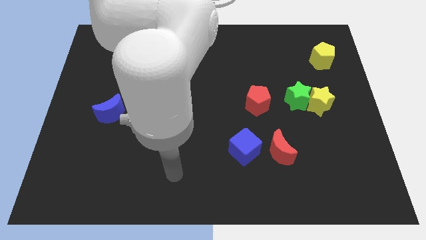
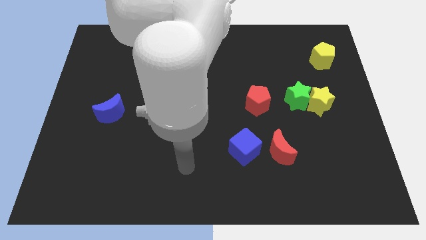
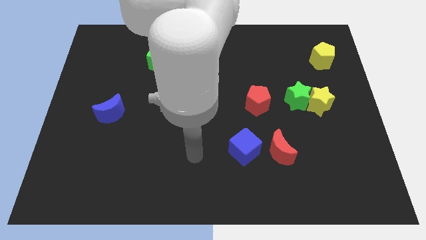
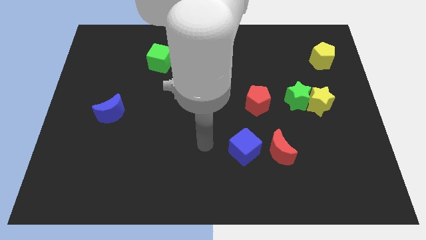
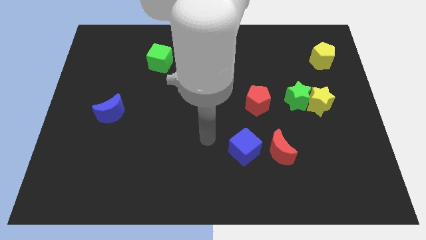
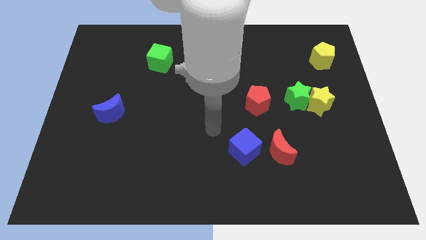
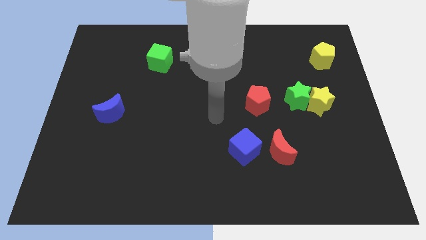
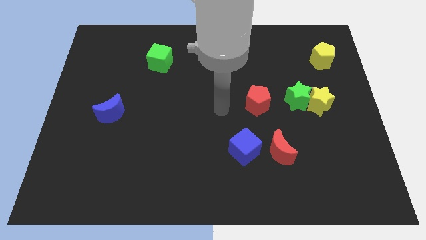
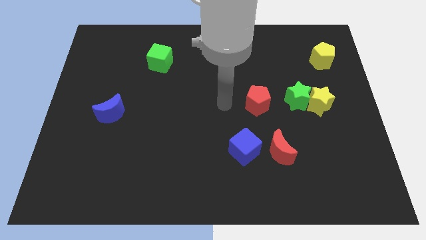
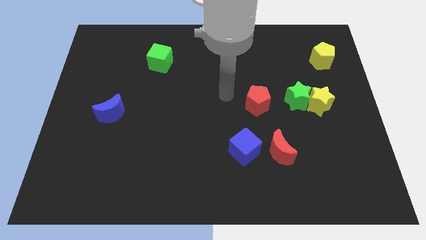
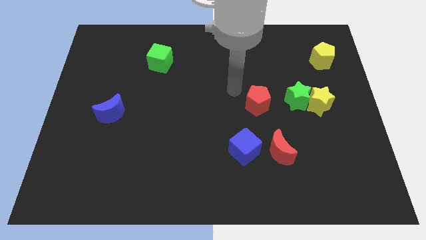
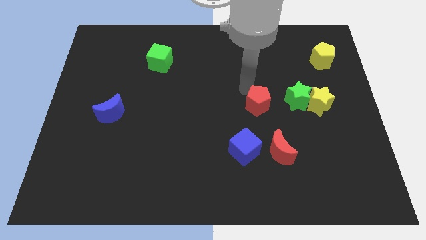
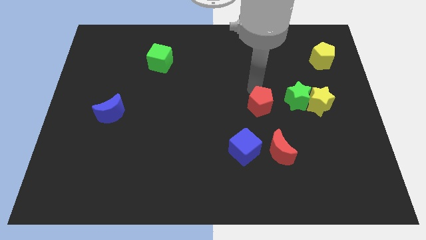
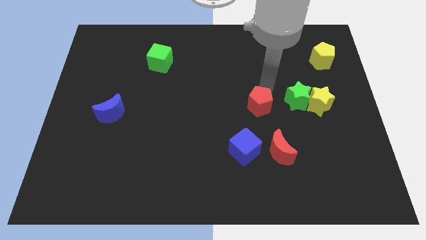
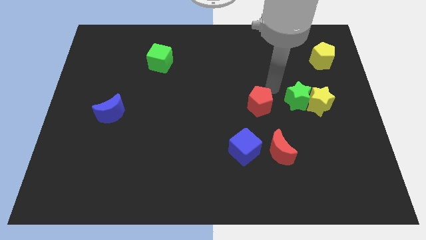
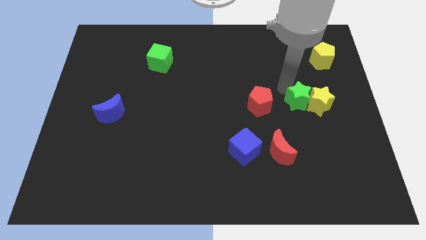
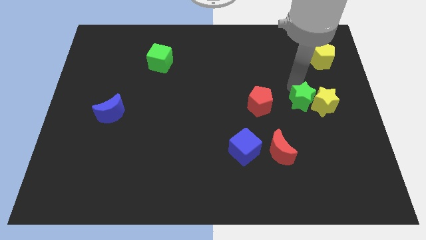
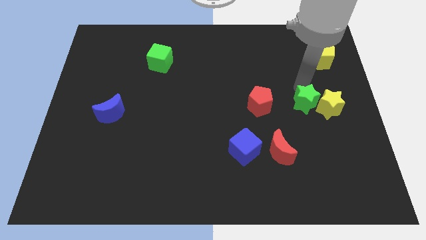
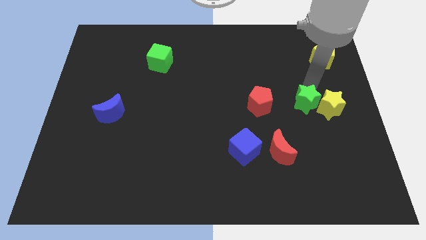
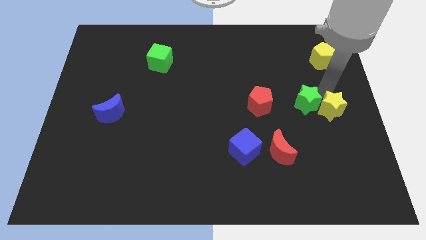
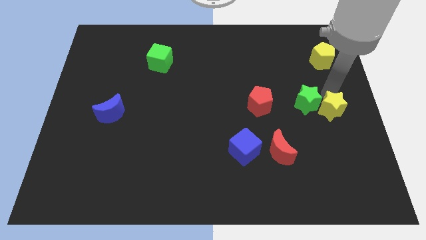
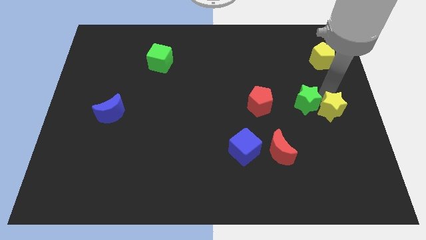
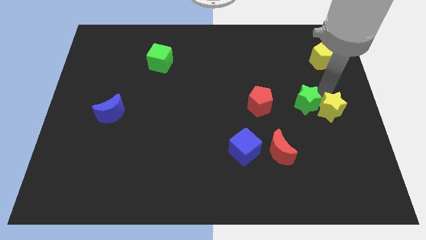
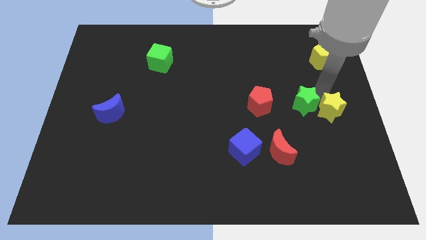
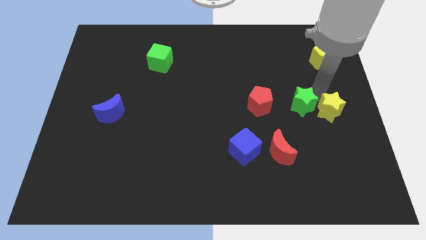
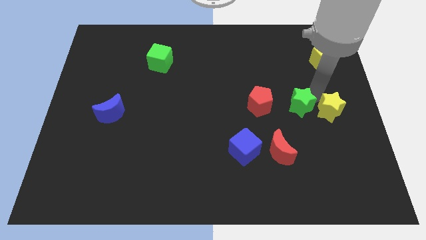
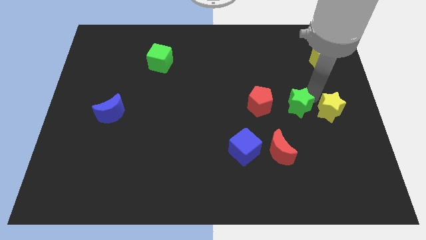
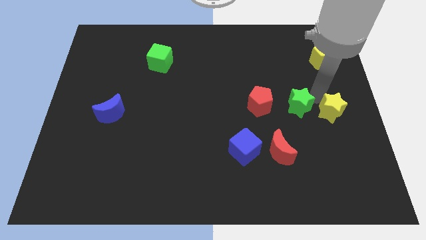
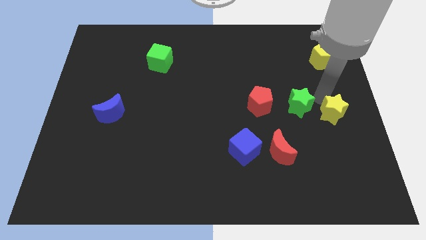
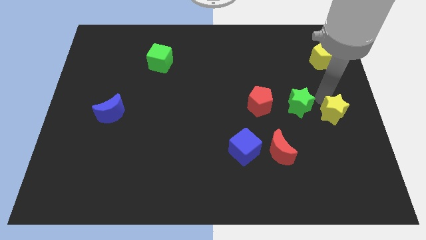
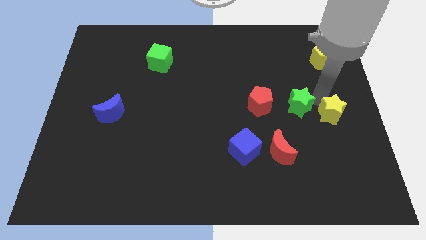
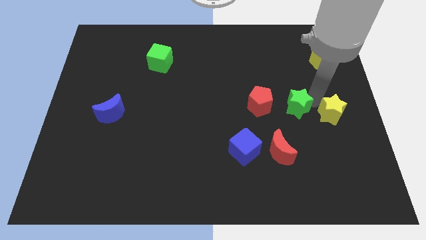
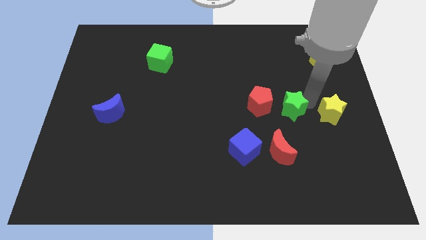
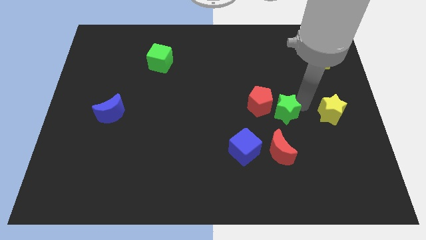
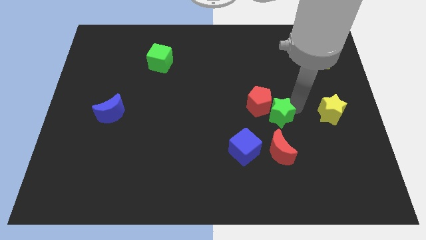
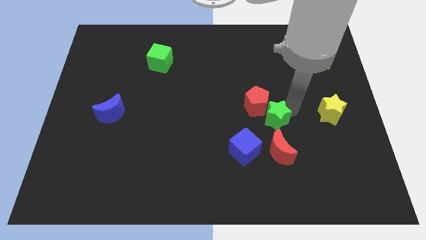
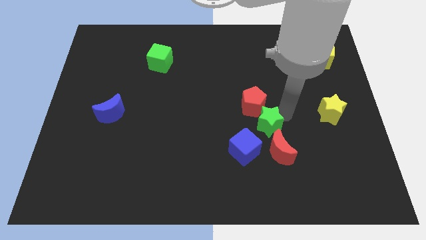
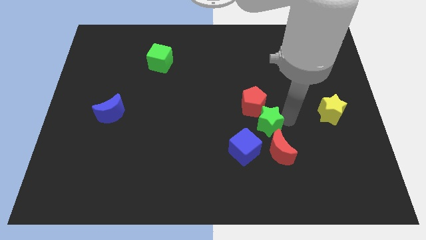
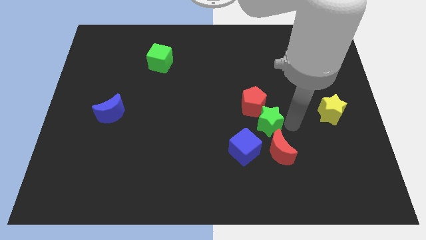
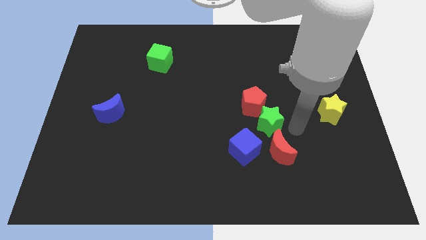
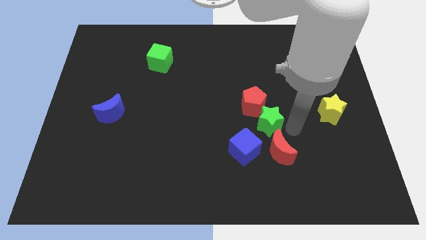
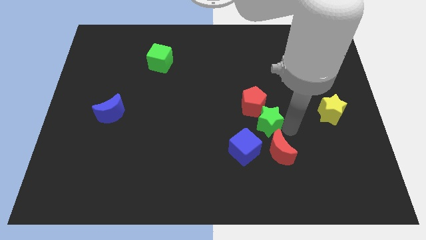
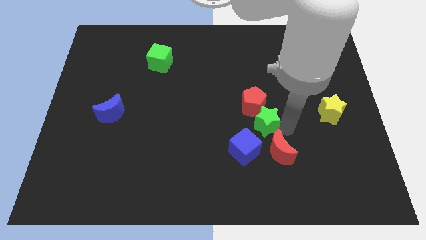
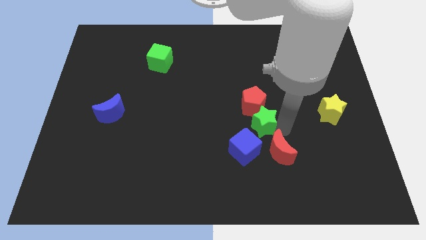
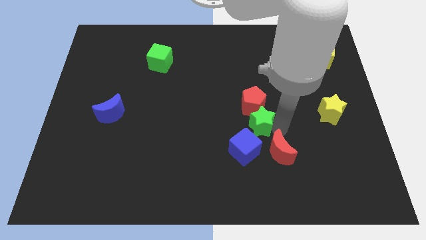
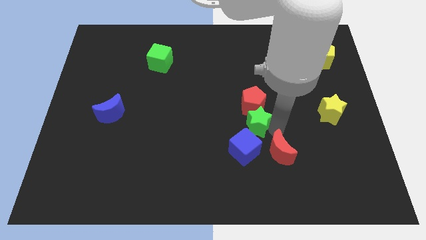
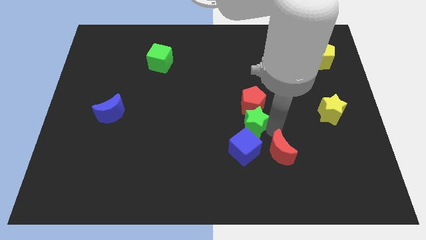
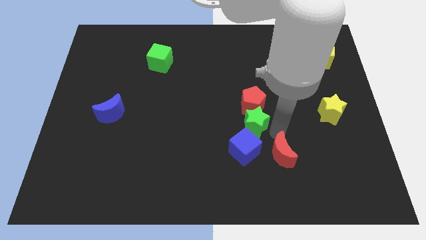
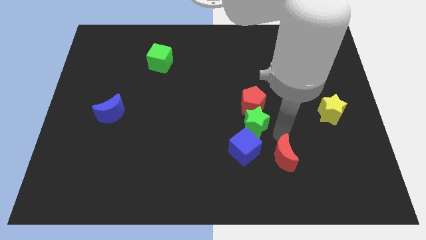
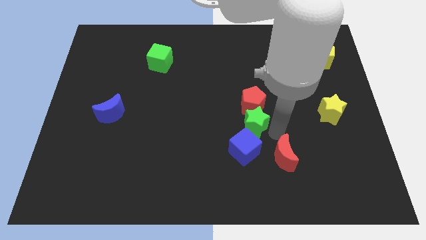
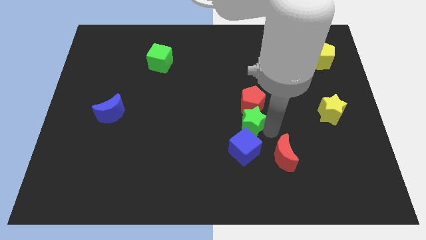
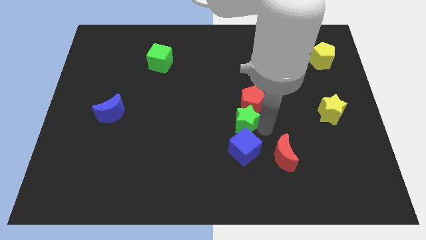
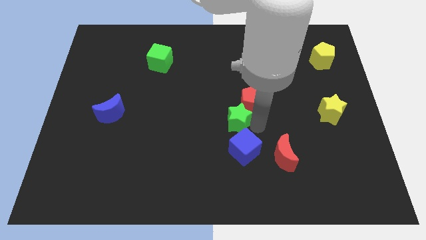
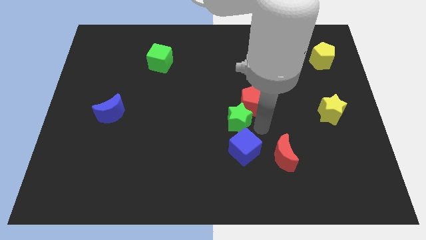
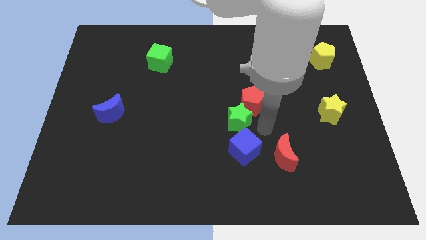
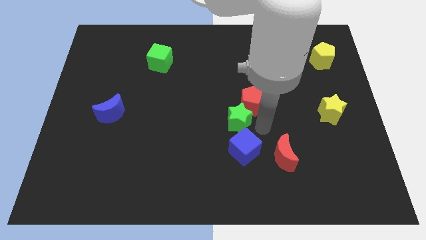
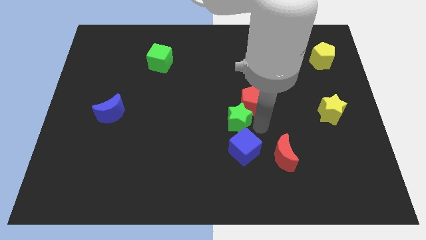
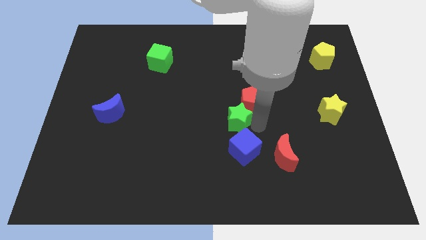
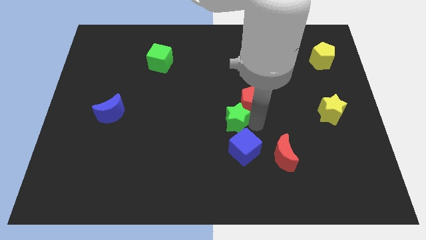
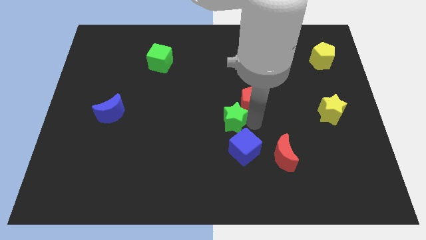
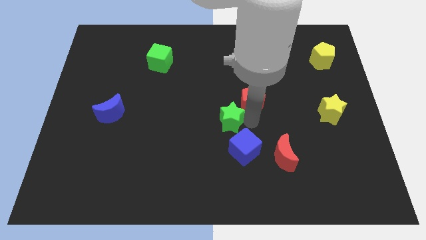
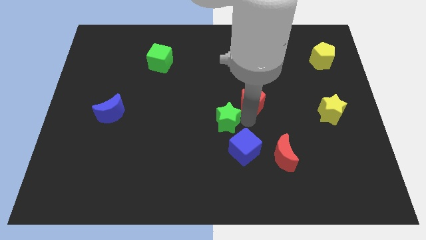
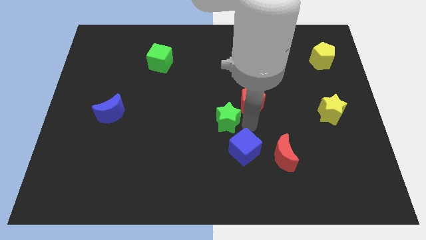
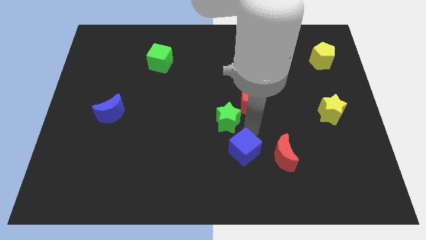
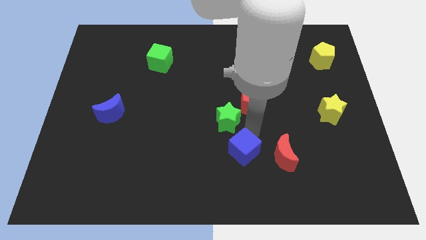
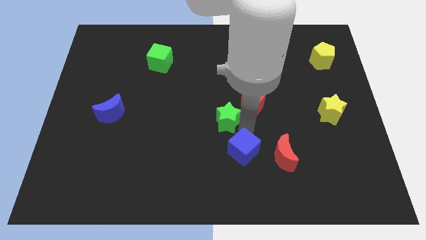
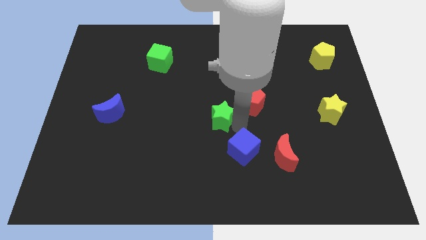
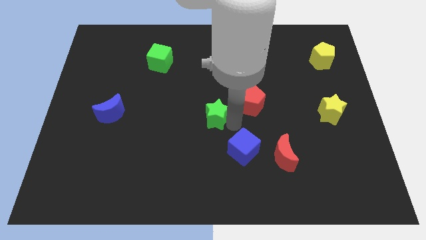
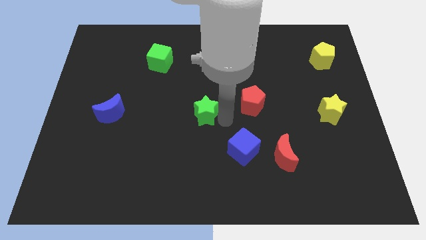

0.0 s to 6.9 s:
move the green star to the left

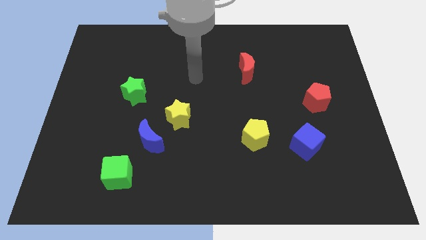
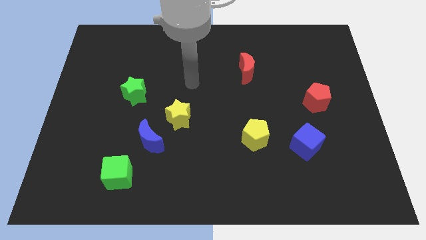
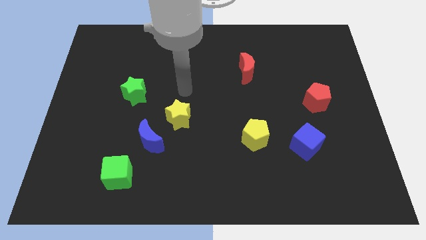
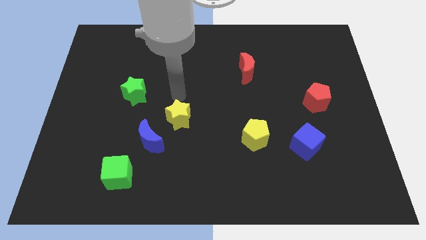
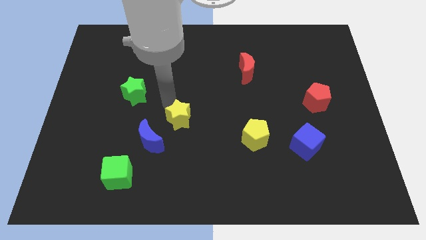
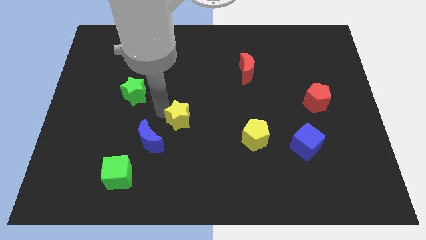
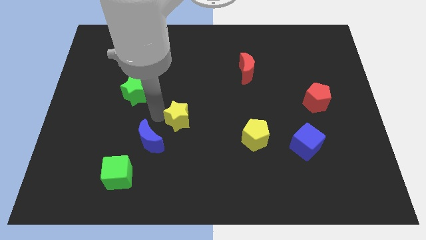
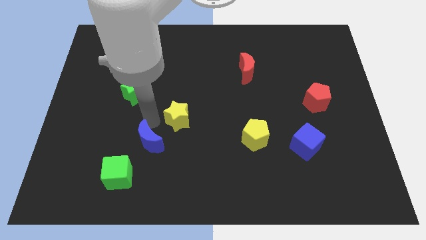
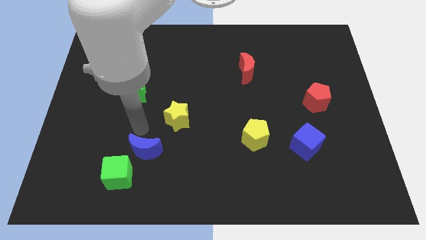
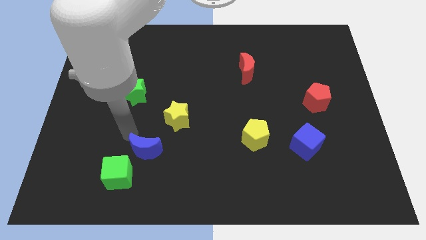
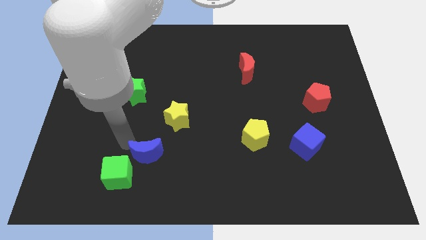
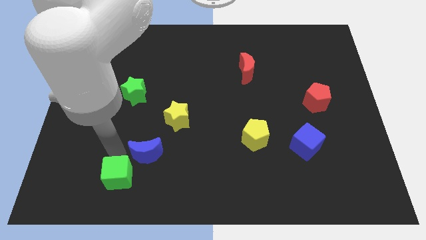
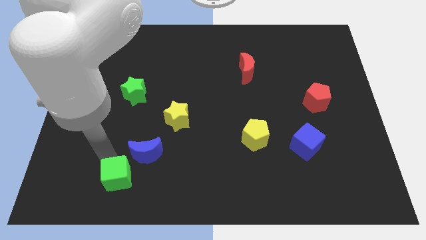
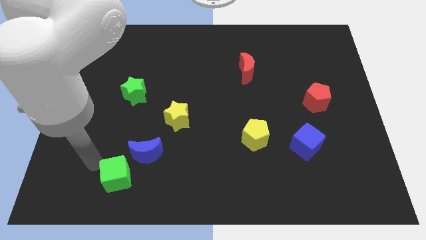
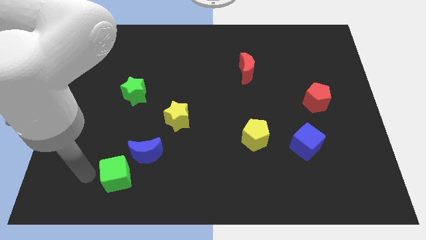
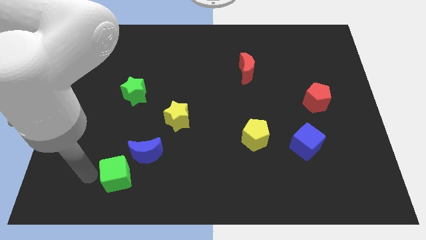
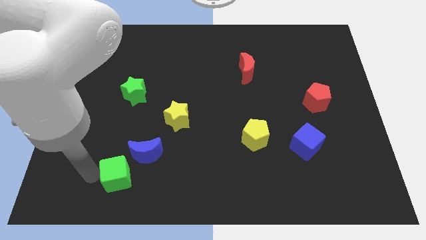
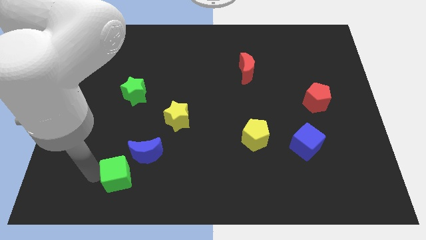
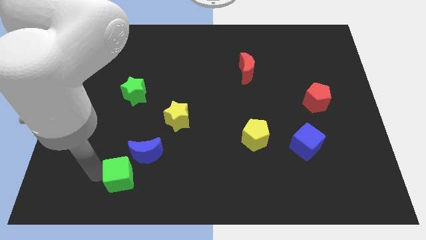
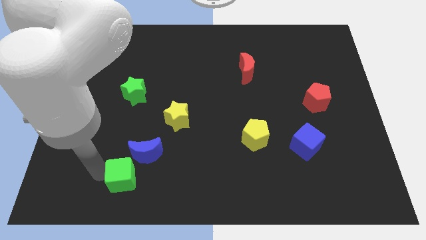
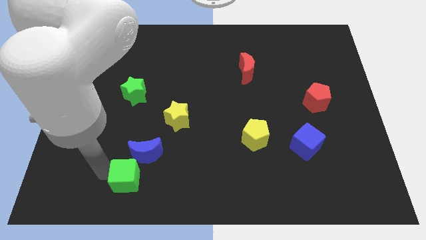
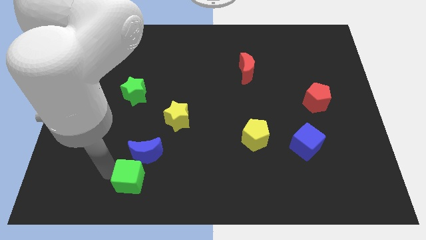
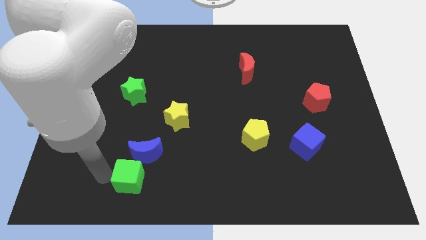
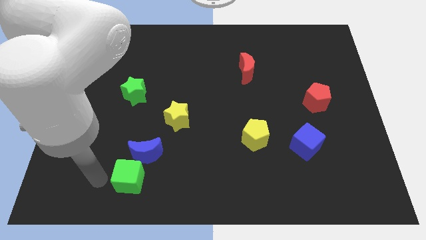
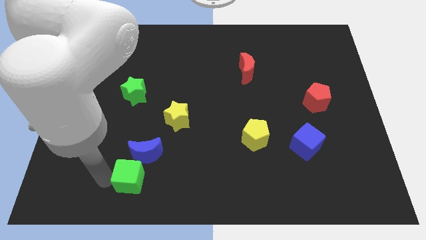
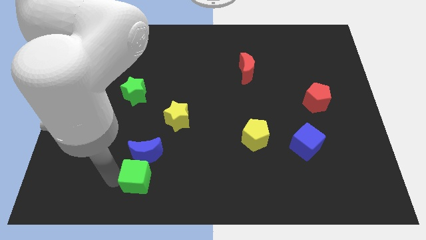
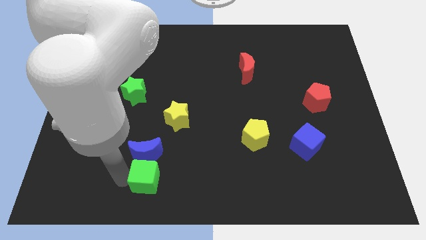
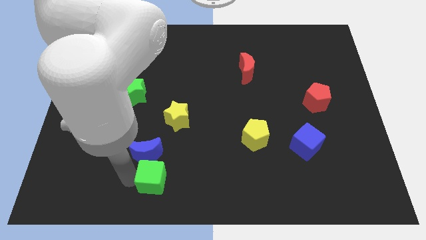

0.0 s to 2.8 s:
push the green cube a bit to the right
